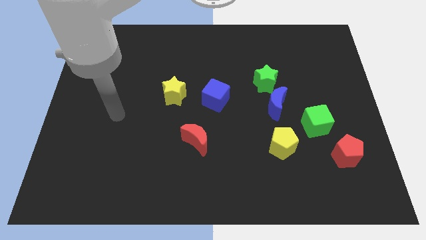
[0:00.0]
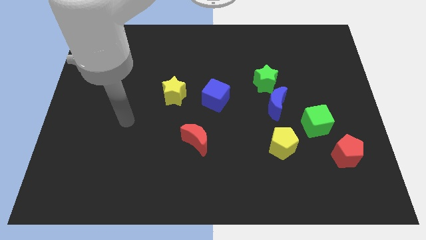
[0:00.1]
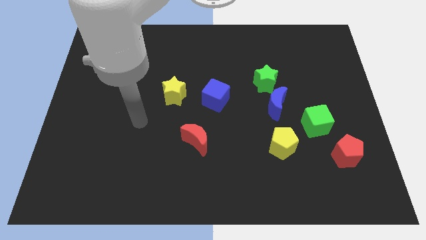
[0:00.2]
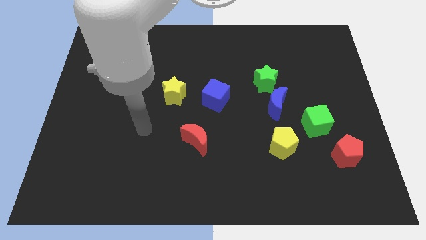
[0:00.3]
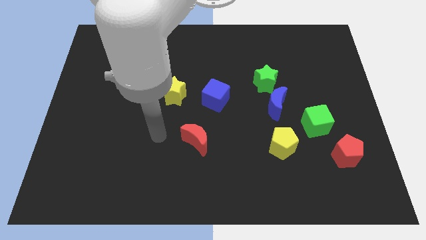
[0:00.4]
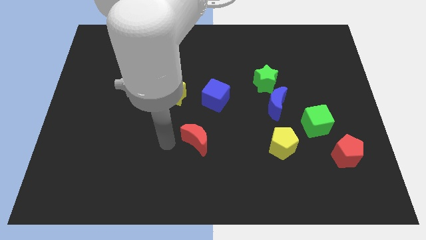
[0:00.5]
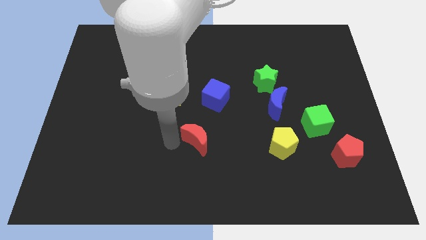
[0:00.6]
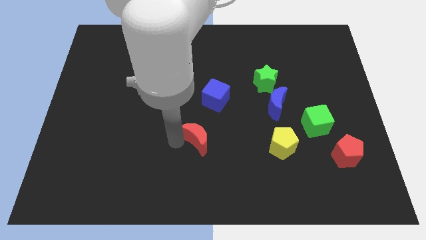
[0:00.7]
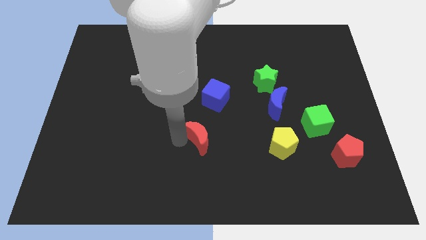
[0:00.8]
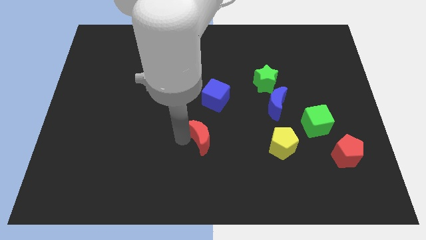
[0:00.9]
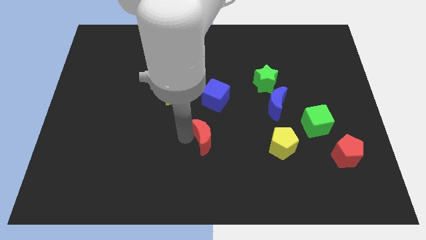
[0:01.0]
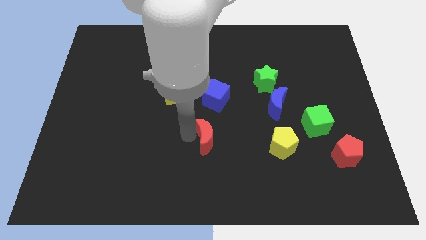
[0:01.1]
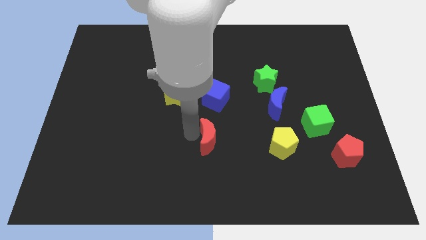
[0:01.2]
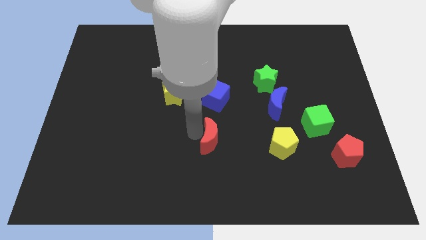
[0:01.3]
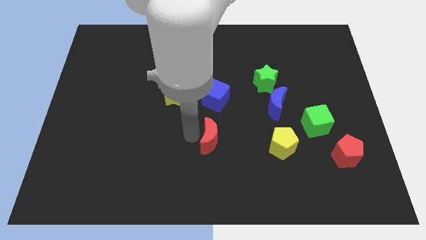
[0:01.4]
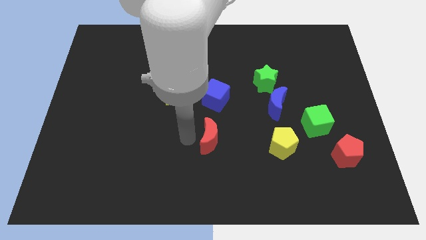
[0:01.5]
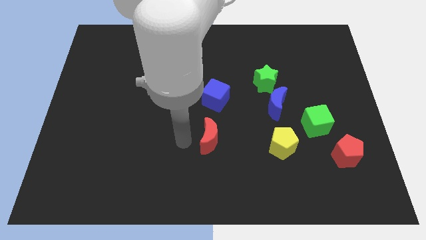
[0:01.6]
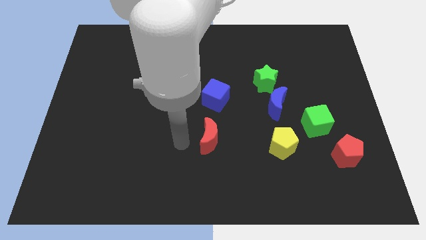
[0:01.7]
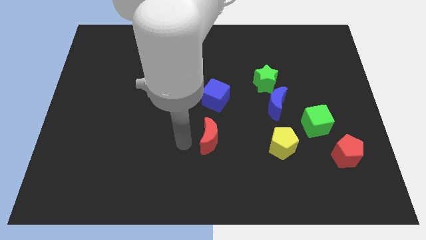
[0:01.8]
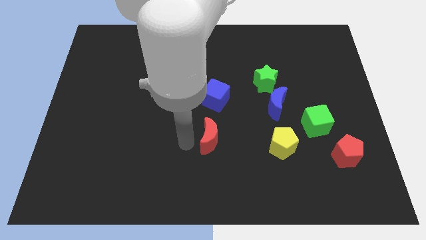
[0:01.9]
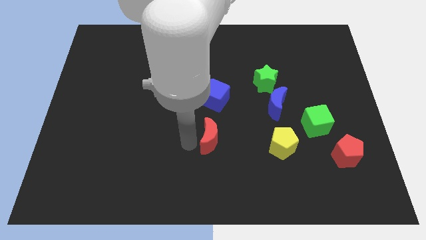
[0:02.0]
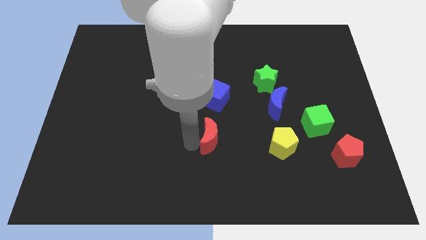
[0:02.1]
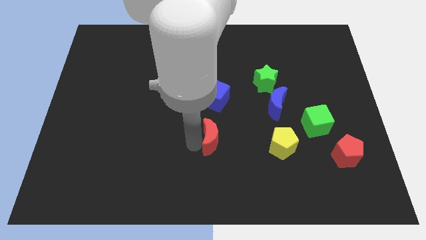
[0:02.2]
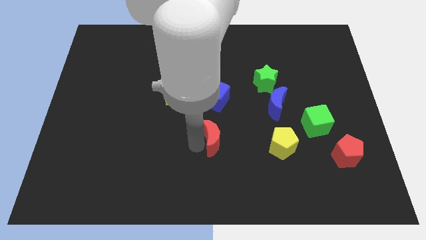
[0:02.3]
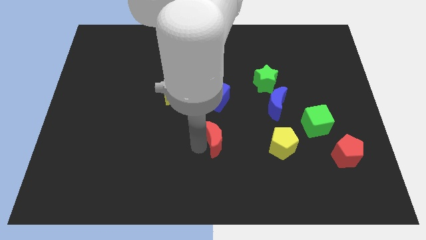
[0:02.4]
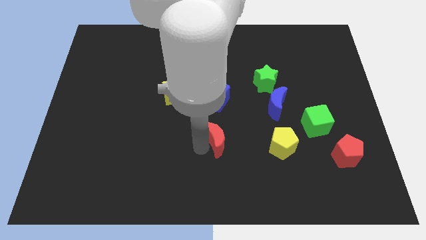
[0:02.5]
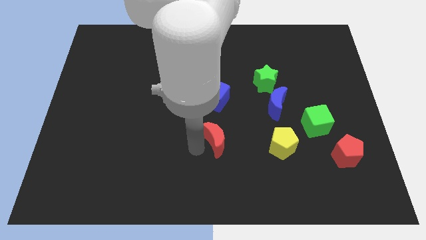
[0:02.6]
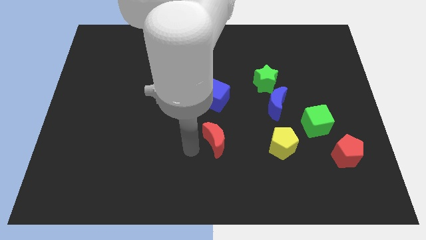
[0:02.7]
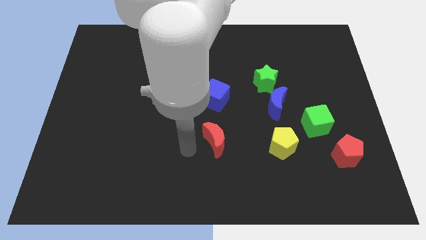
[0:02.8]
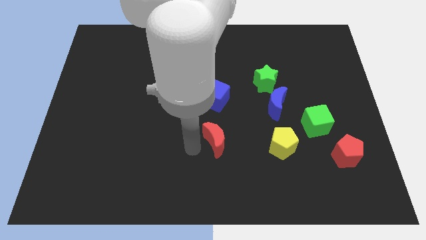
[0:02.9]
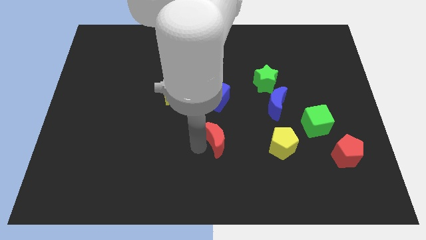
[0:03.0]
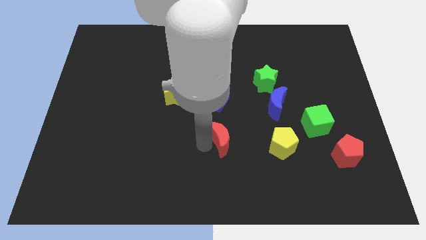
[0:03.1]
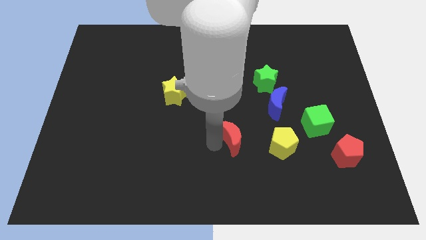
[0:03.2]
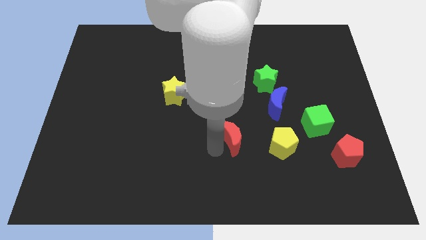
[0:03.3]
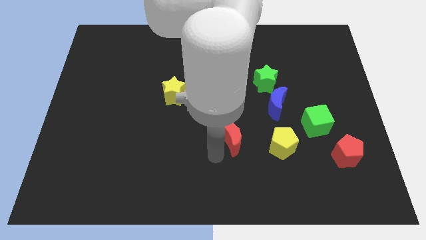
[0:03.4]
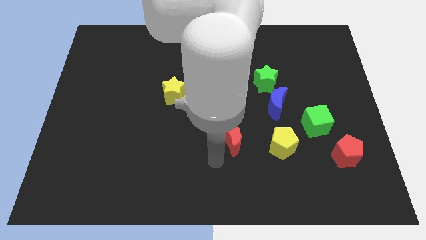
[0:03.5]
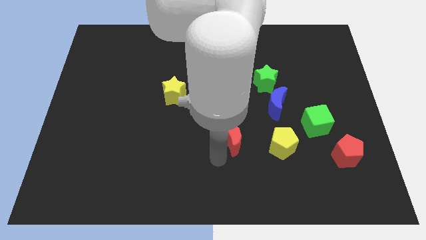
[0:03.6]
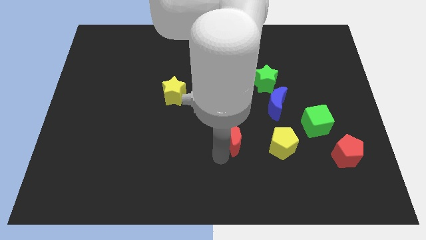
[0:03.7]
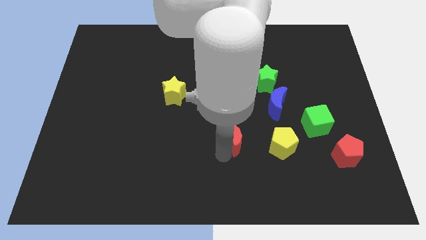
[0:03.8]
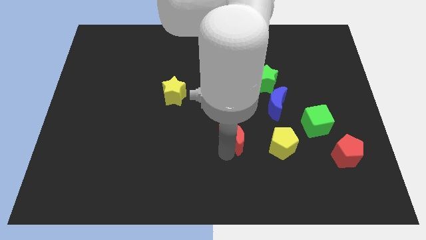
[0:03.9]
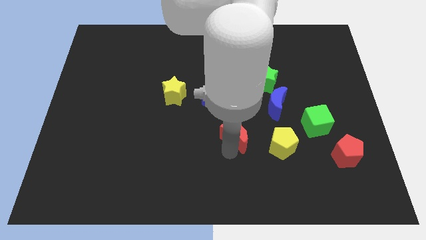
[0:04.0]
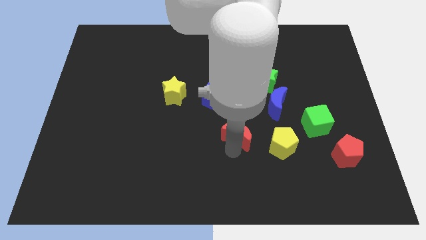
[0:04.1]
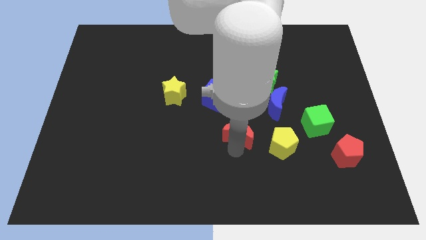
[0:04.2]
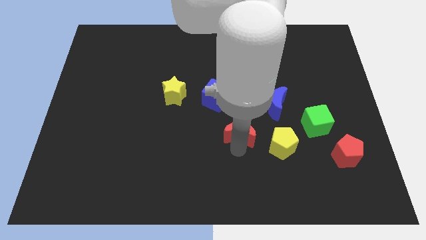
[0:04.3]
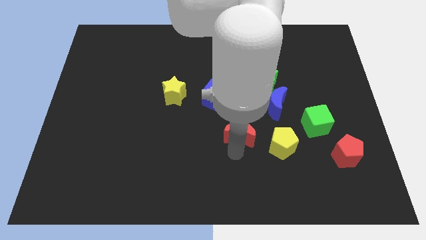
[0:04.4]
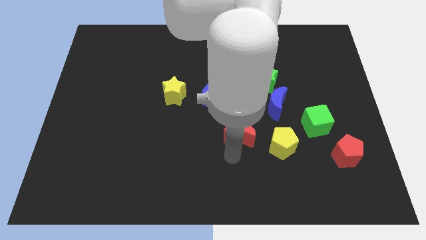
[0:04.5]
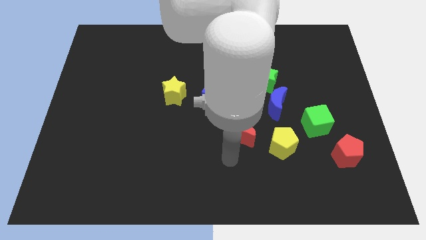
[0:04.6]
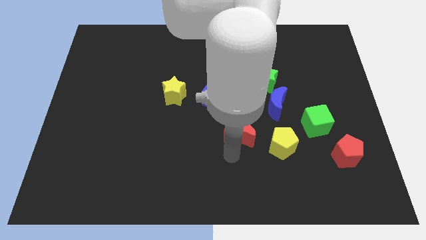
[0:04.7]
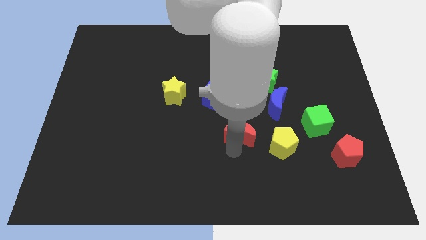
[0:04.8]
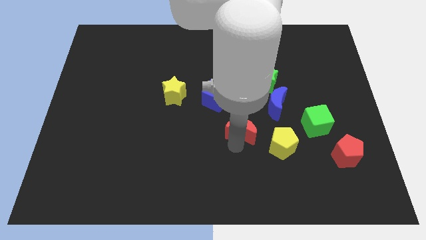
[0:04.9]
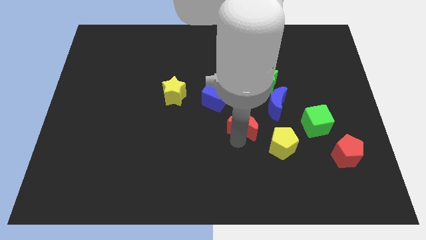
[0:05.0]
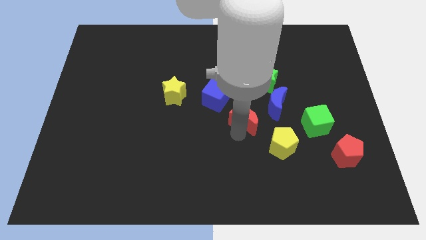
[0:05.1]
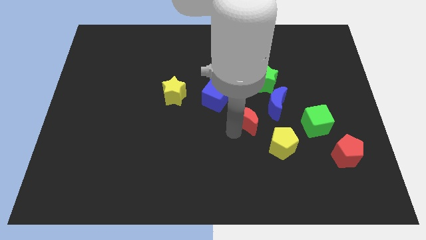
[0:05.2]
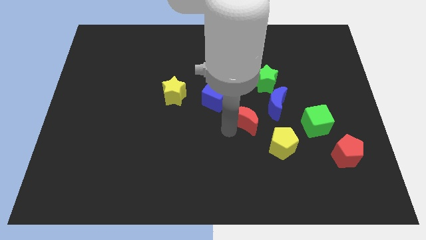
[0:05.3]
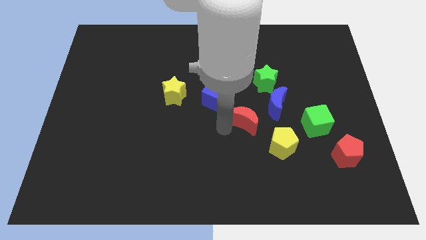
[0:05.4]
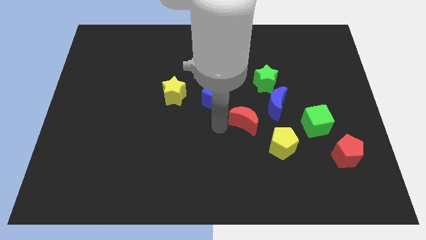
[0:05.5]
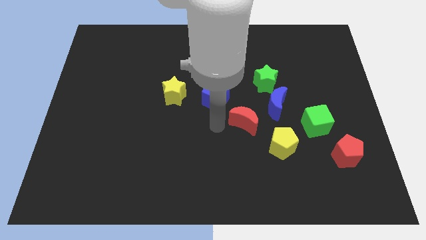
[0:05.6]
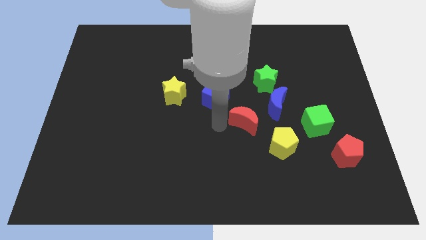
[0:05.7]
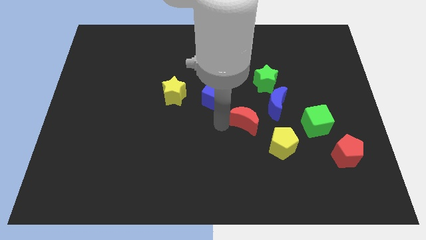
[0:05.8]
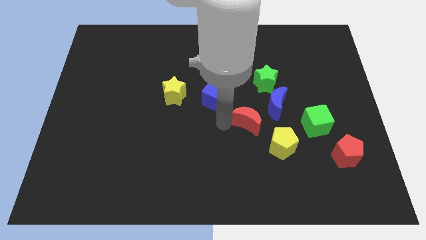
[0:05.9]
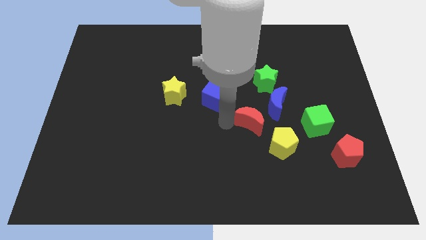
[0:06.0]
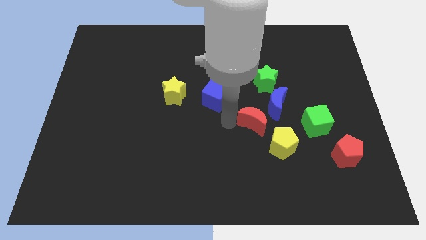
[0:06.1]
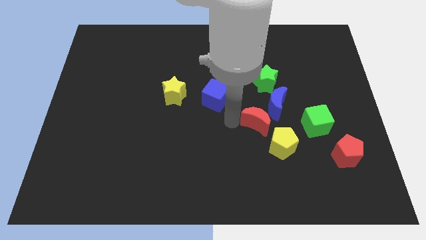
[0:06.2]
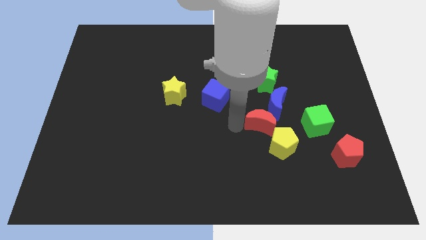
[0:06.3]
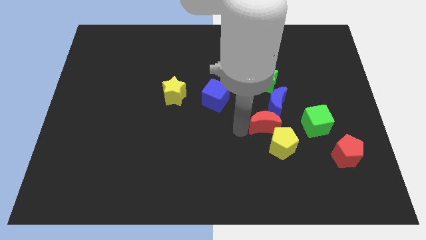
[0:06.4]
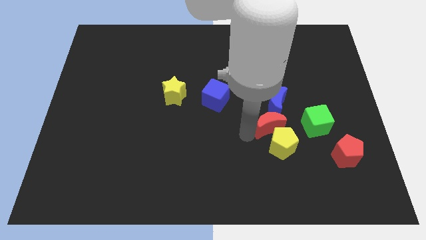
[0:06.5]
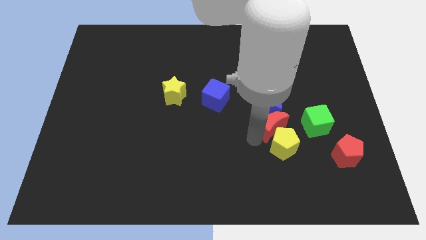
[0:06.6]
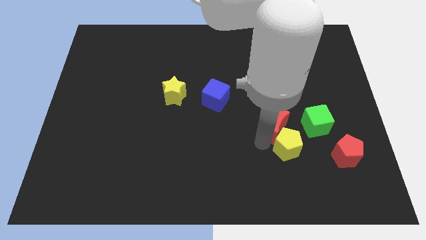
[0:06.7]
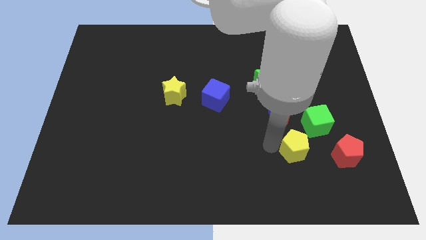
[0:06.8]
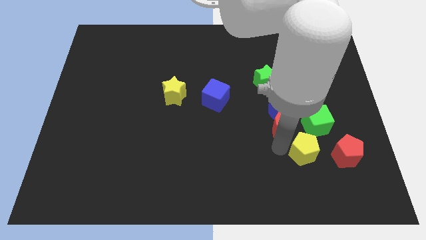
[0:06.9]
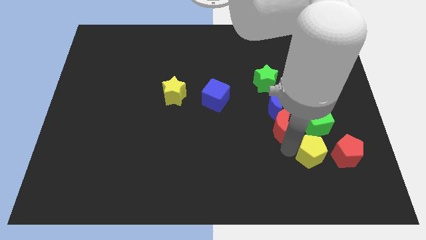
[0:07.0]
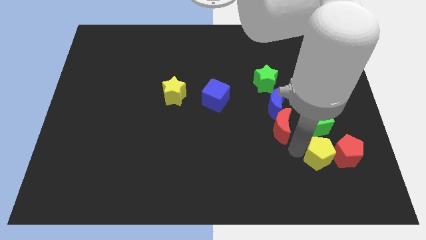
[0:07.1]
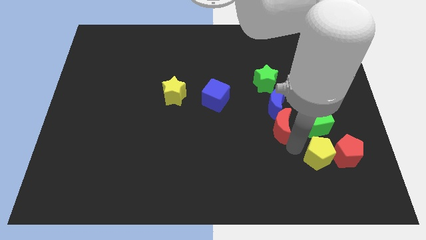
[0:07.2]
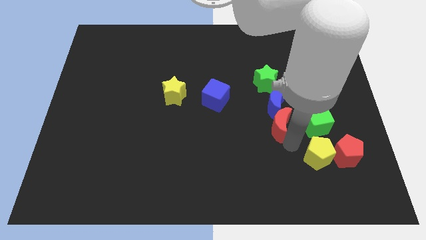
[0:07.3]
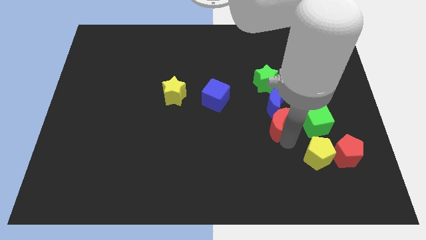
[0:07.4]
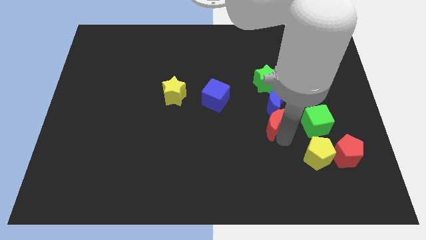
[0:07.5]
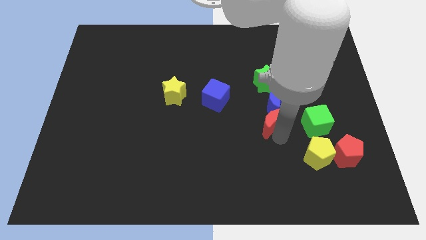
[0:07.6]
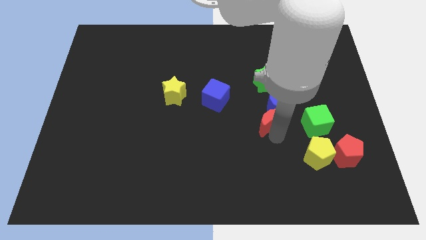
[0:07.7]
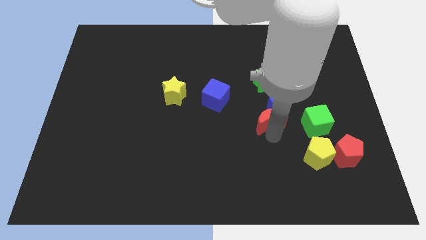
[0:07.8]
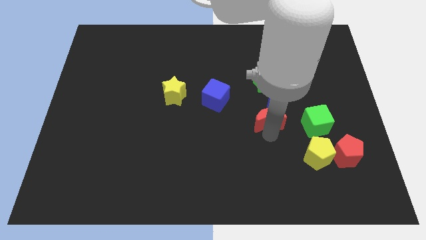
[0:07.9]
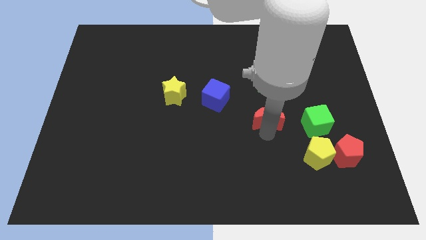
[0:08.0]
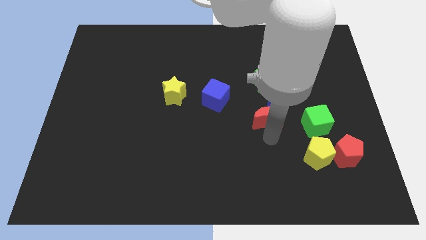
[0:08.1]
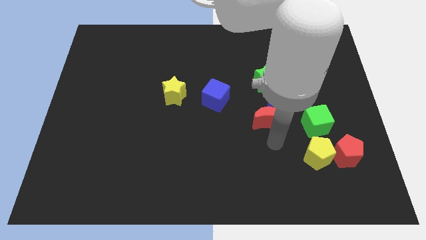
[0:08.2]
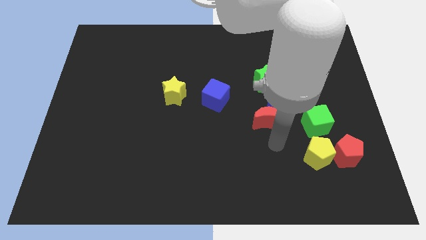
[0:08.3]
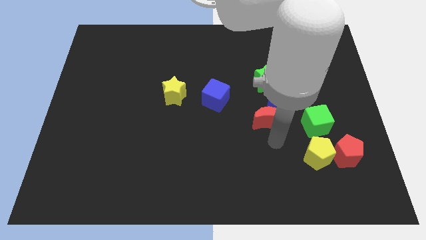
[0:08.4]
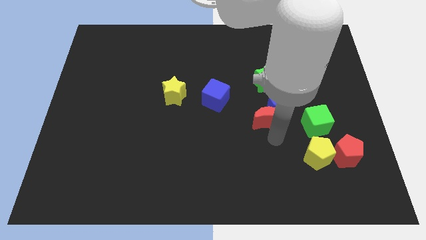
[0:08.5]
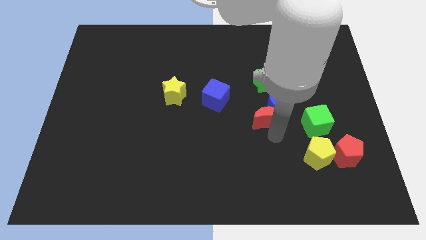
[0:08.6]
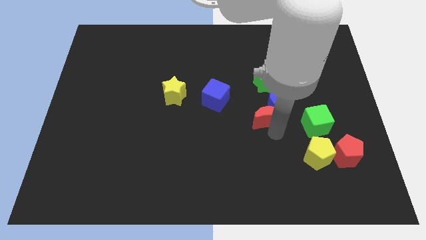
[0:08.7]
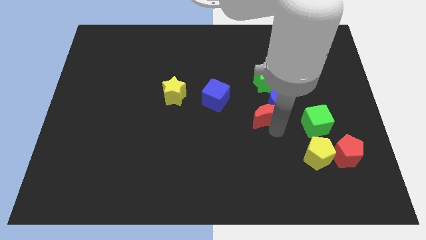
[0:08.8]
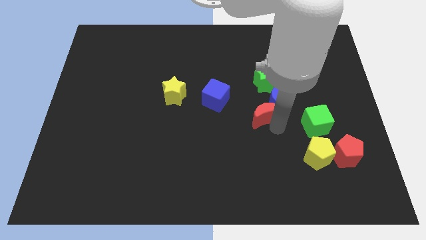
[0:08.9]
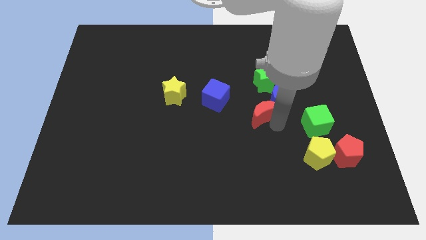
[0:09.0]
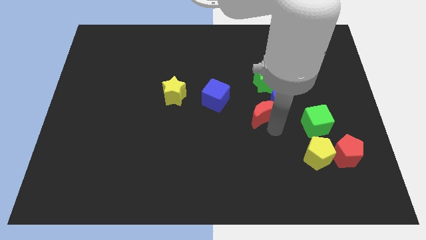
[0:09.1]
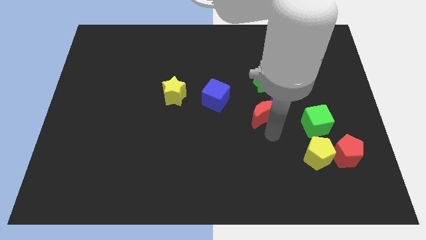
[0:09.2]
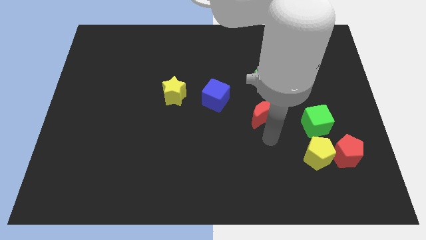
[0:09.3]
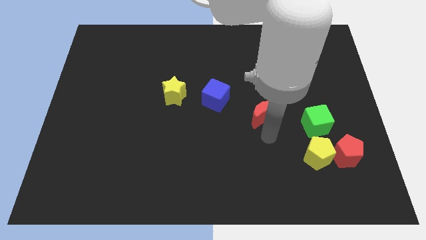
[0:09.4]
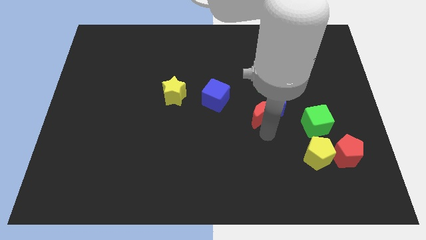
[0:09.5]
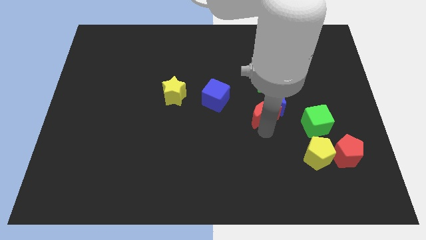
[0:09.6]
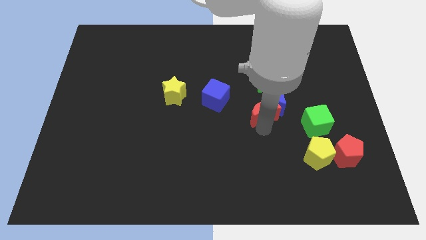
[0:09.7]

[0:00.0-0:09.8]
put the red moon right of the blue cube
